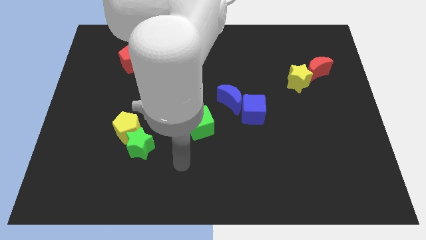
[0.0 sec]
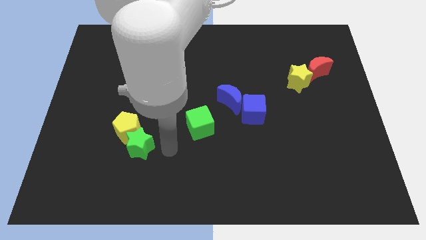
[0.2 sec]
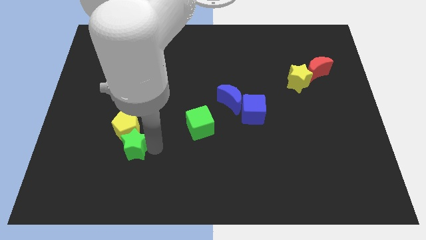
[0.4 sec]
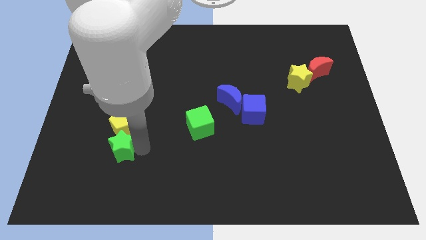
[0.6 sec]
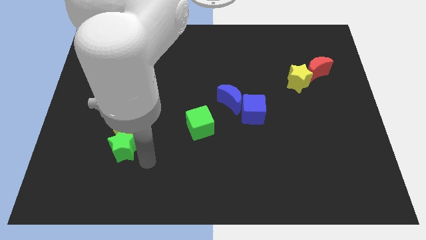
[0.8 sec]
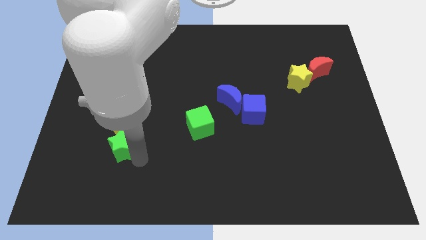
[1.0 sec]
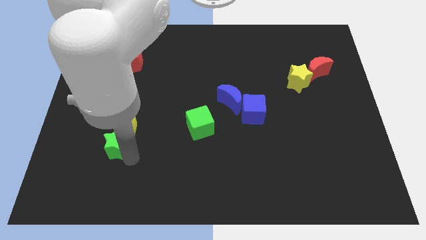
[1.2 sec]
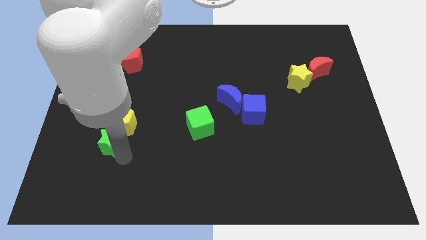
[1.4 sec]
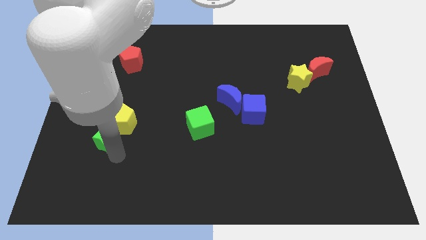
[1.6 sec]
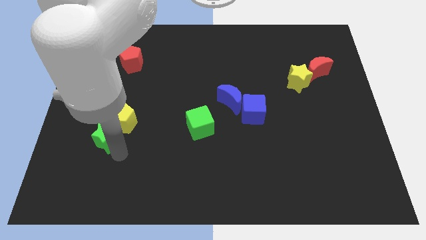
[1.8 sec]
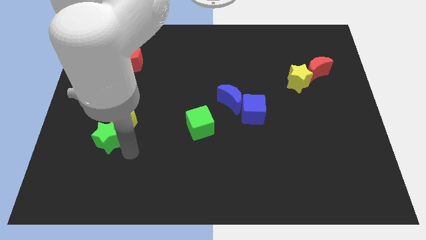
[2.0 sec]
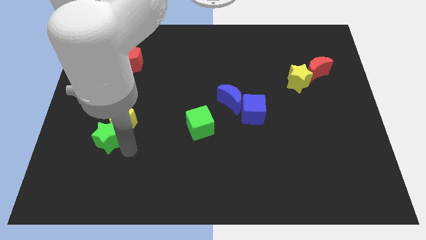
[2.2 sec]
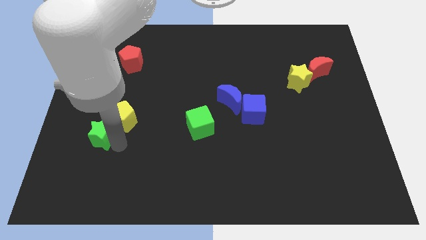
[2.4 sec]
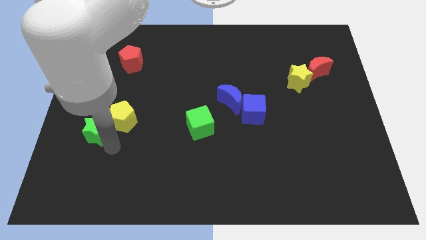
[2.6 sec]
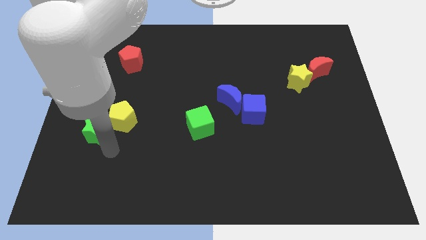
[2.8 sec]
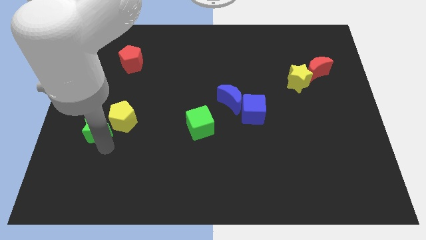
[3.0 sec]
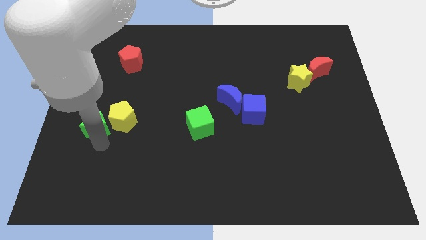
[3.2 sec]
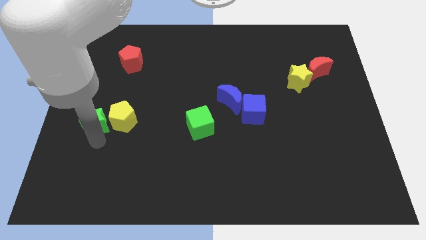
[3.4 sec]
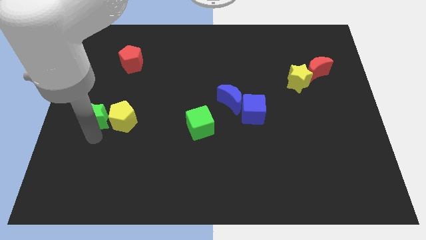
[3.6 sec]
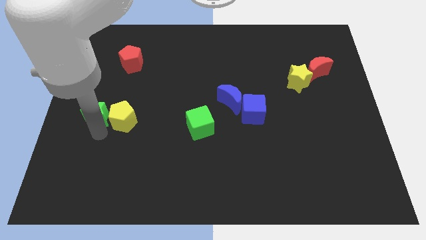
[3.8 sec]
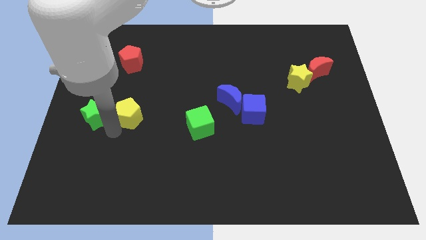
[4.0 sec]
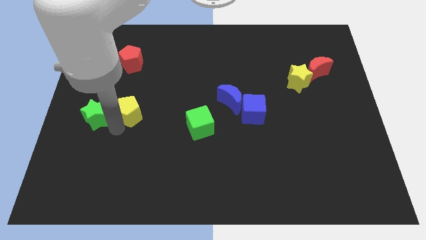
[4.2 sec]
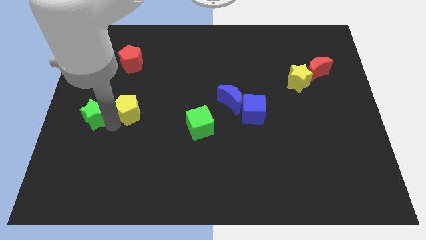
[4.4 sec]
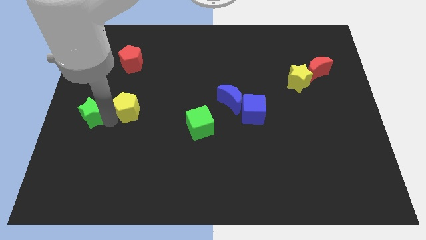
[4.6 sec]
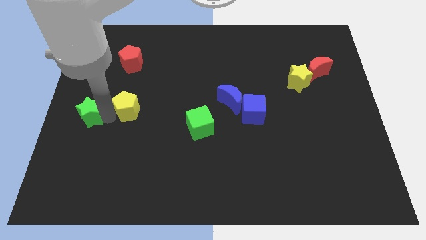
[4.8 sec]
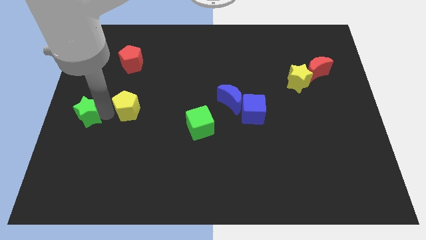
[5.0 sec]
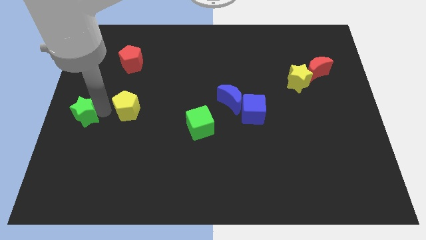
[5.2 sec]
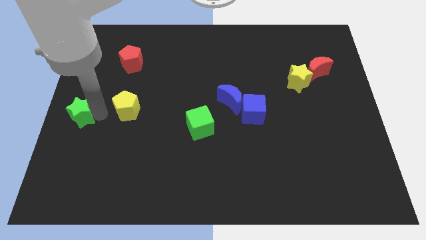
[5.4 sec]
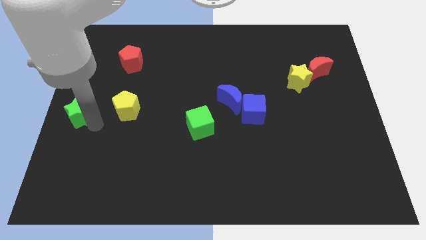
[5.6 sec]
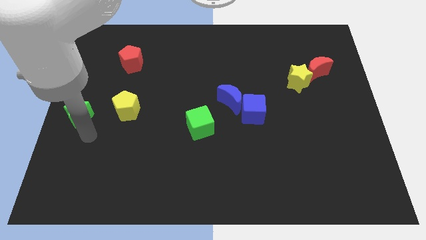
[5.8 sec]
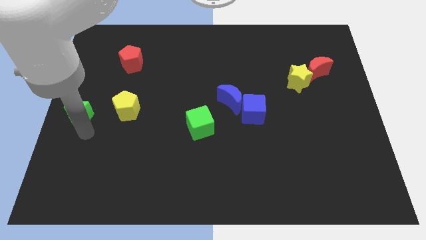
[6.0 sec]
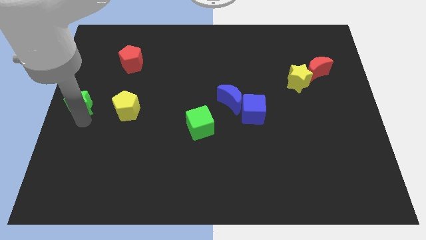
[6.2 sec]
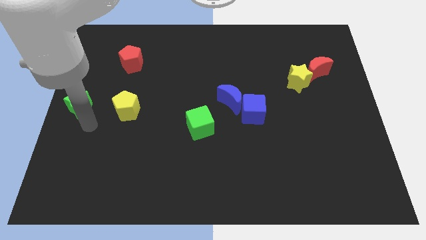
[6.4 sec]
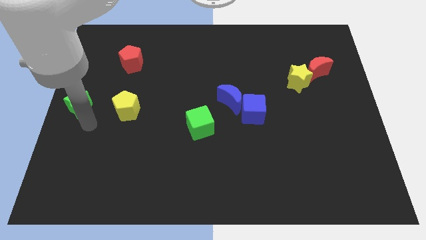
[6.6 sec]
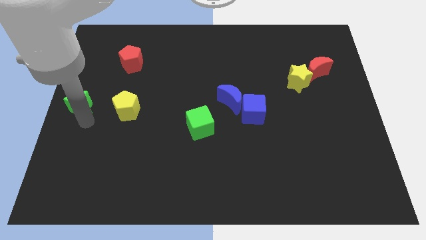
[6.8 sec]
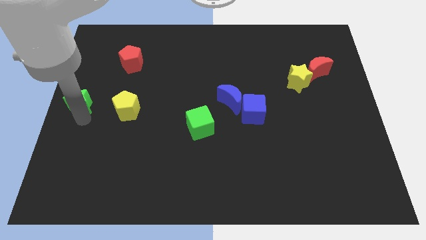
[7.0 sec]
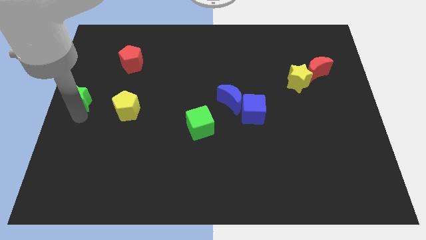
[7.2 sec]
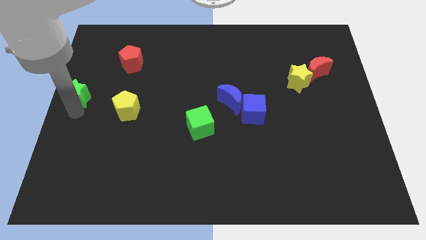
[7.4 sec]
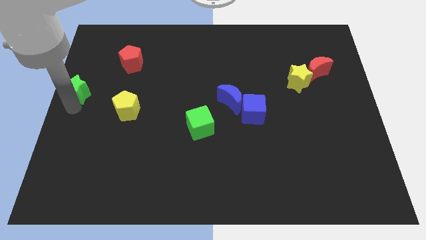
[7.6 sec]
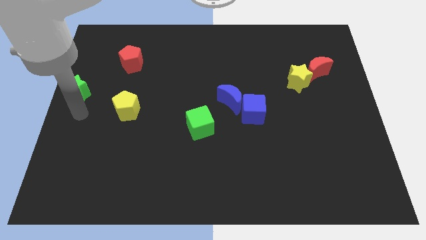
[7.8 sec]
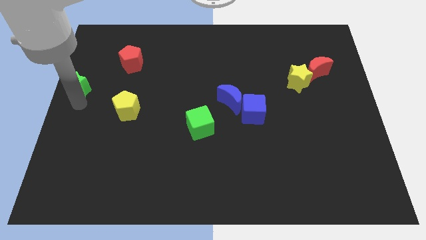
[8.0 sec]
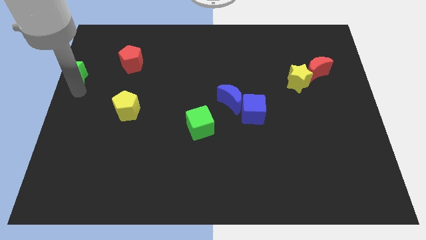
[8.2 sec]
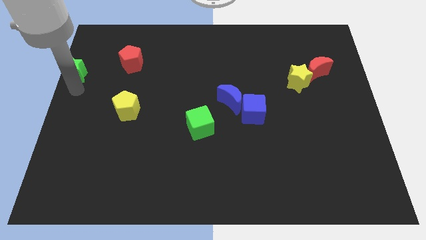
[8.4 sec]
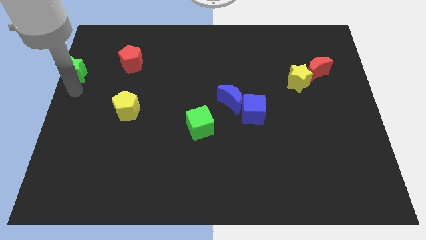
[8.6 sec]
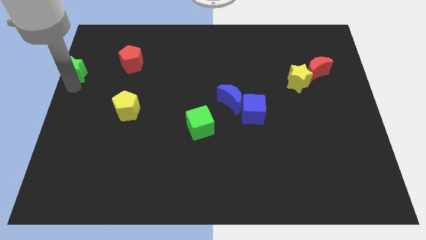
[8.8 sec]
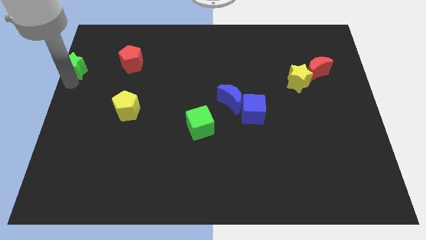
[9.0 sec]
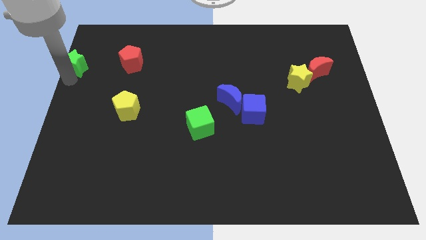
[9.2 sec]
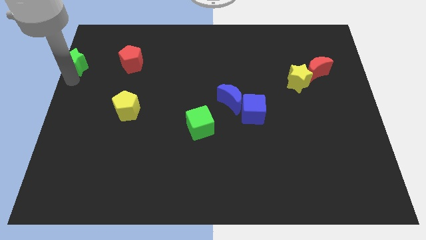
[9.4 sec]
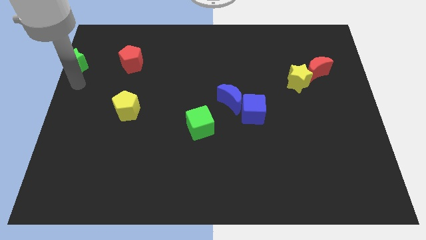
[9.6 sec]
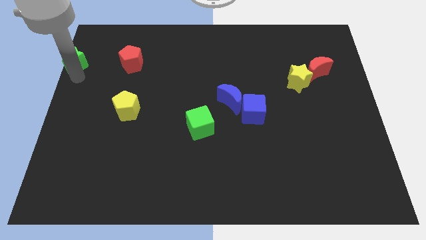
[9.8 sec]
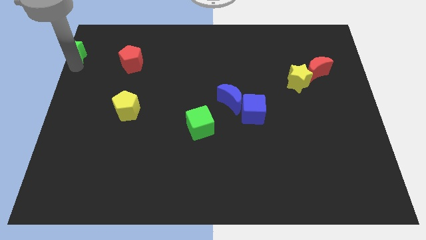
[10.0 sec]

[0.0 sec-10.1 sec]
put the green star to the top left corner

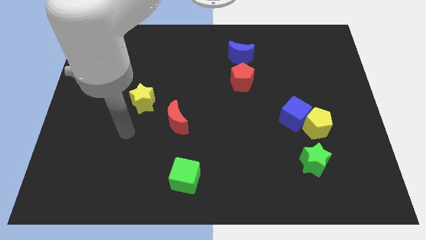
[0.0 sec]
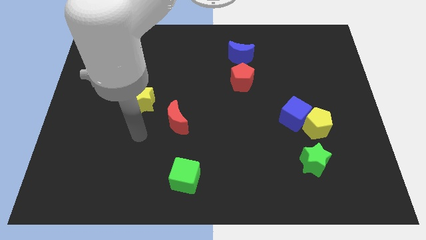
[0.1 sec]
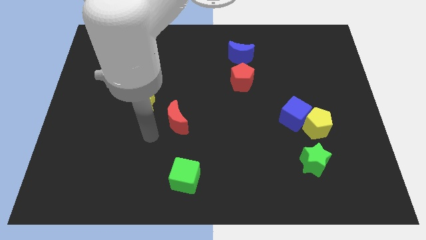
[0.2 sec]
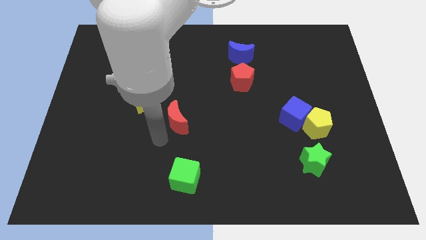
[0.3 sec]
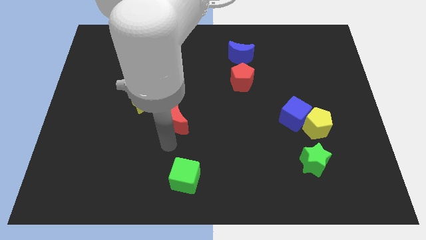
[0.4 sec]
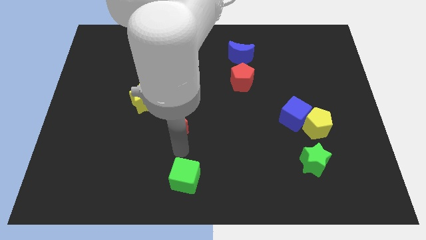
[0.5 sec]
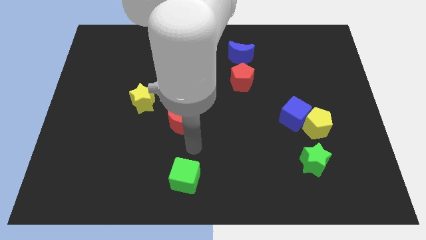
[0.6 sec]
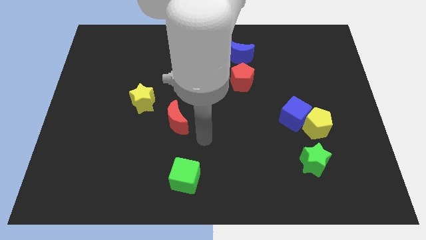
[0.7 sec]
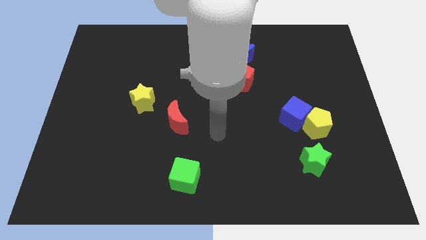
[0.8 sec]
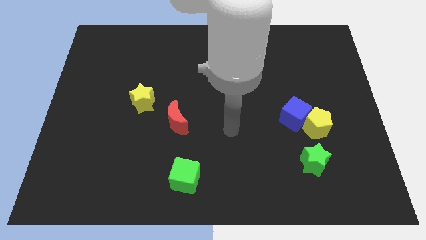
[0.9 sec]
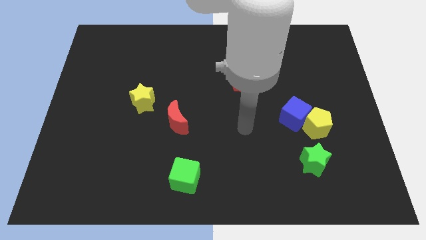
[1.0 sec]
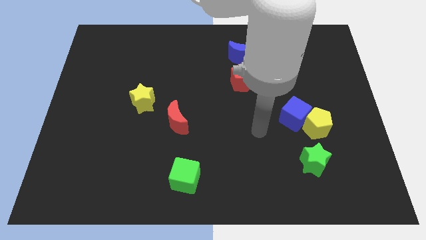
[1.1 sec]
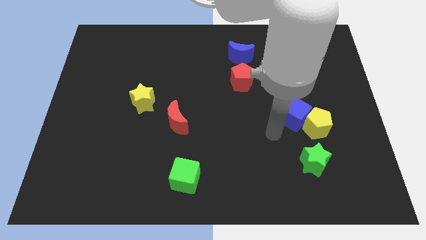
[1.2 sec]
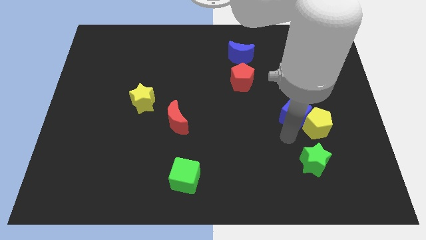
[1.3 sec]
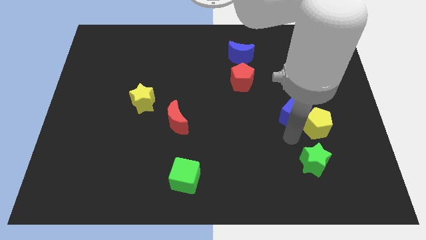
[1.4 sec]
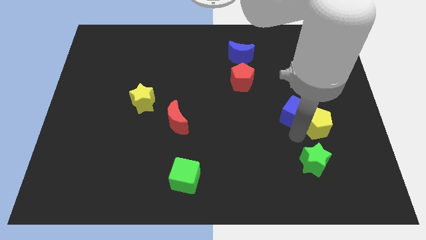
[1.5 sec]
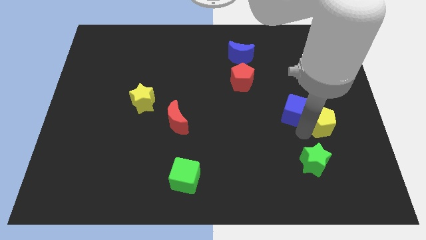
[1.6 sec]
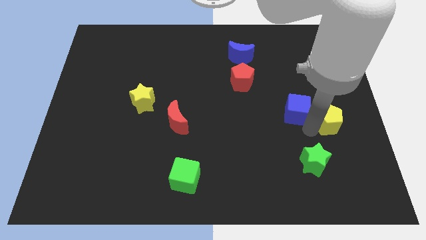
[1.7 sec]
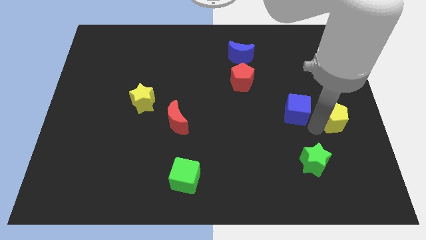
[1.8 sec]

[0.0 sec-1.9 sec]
slide the yellow pentagon to the right side
